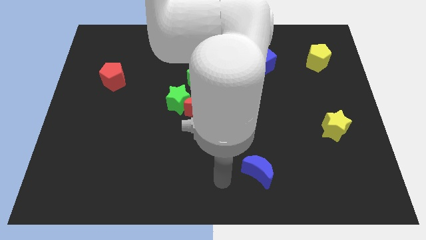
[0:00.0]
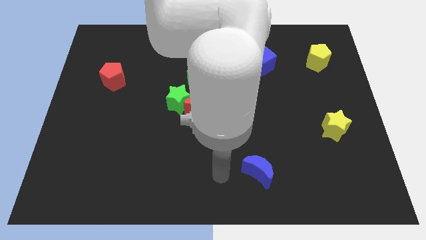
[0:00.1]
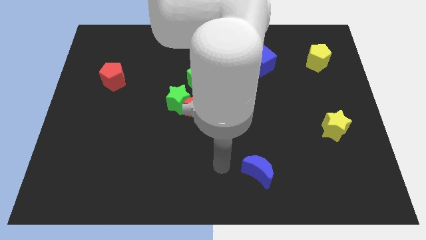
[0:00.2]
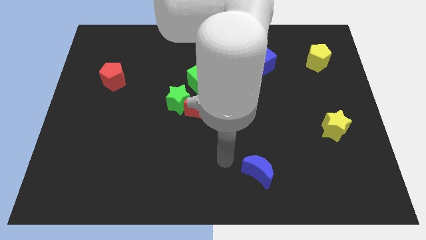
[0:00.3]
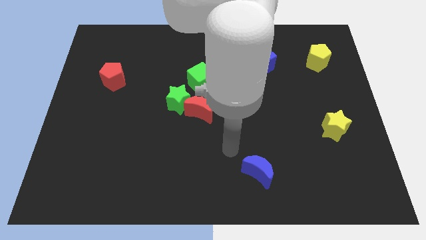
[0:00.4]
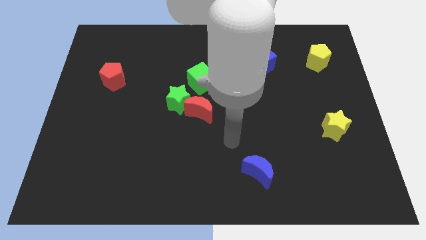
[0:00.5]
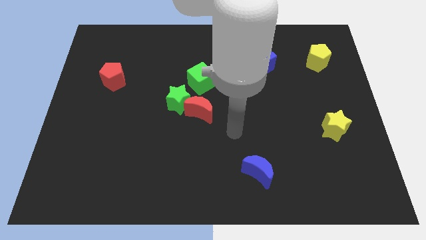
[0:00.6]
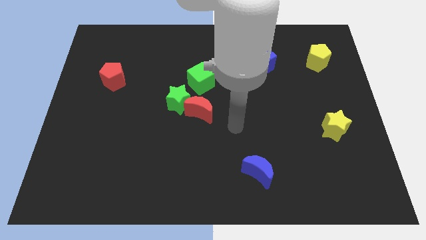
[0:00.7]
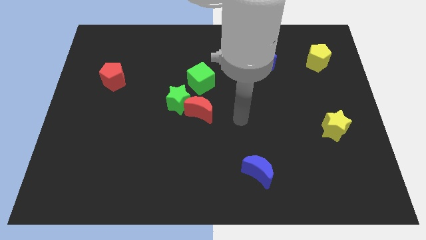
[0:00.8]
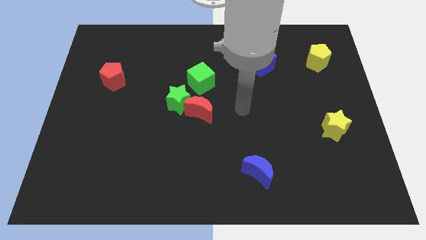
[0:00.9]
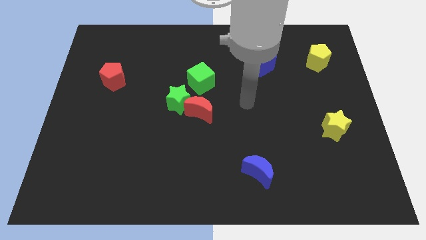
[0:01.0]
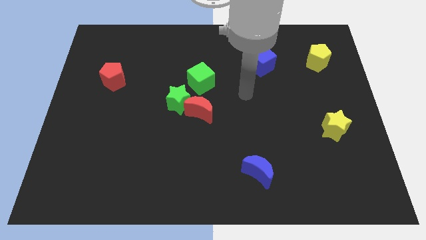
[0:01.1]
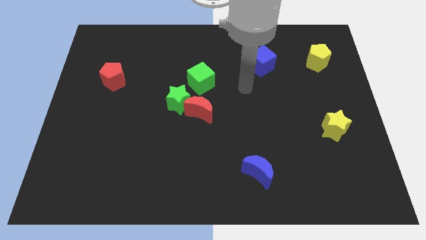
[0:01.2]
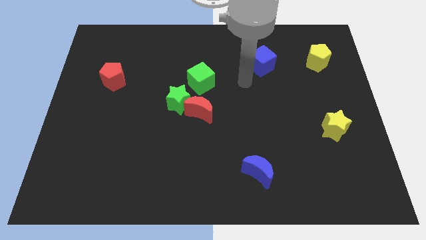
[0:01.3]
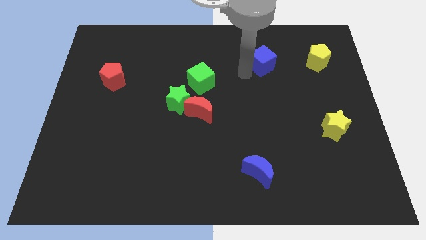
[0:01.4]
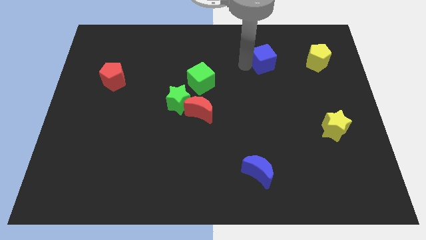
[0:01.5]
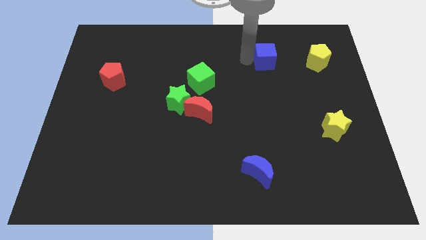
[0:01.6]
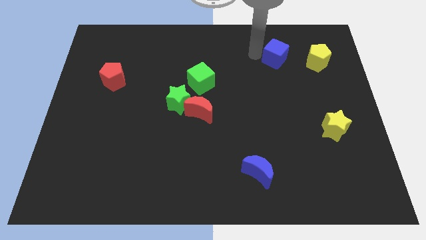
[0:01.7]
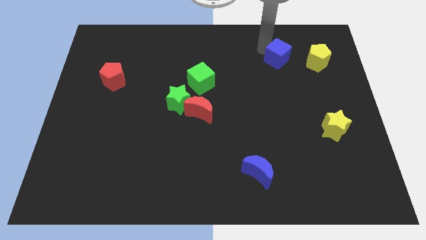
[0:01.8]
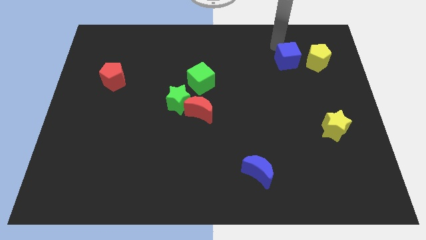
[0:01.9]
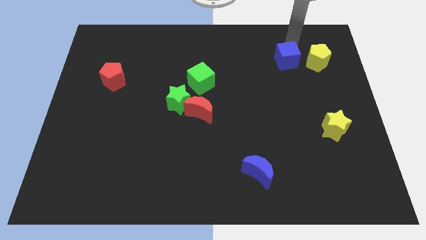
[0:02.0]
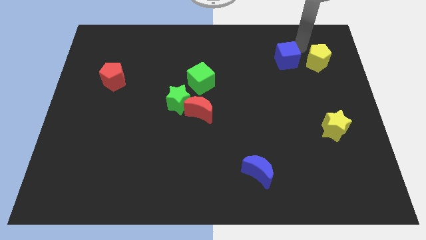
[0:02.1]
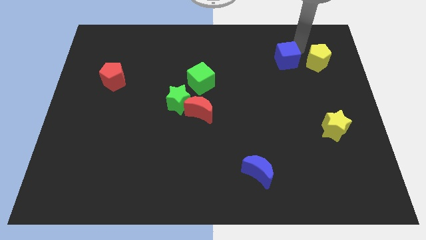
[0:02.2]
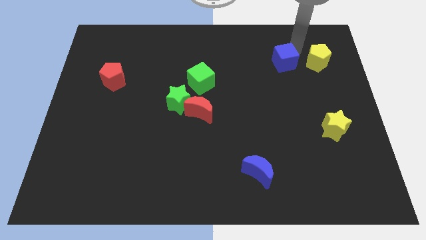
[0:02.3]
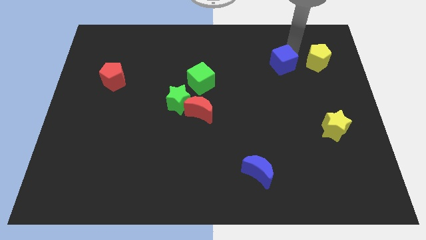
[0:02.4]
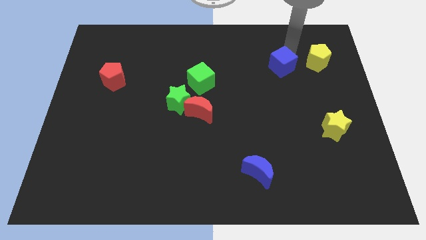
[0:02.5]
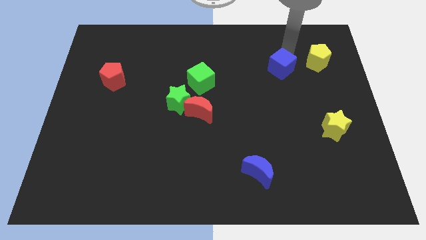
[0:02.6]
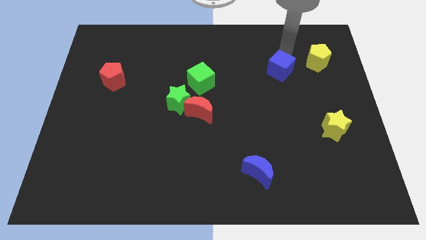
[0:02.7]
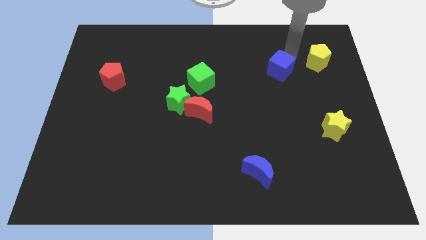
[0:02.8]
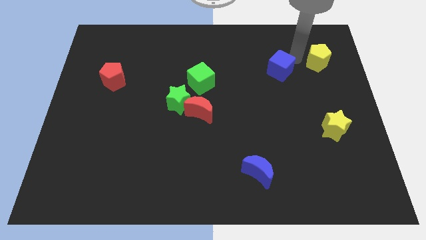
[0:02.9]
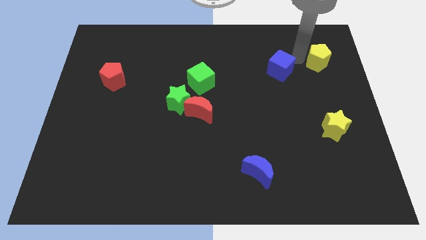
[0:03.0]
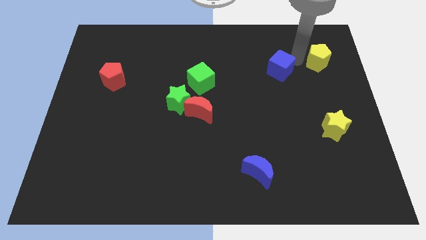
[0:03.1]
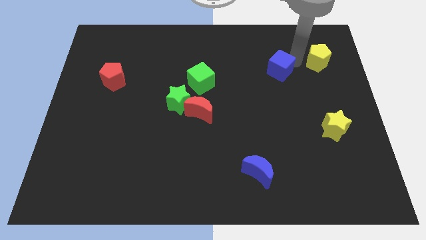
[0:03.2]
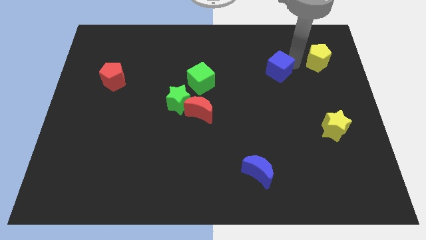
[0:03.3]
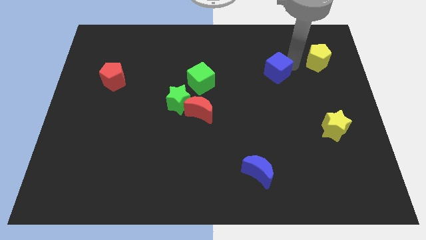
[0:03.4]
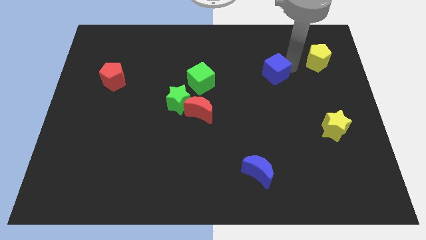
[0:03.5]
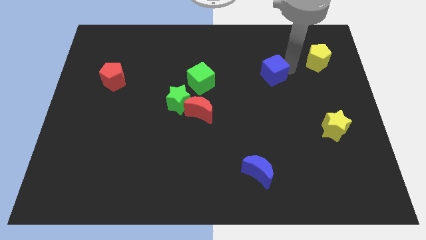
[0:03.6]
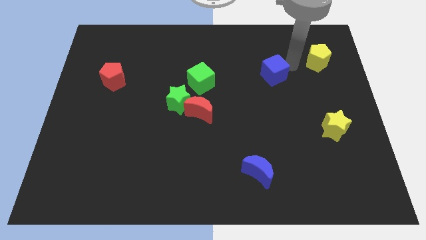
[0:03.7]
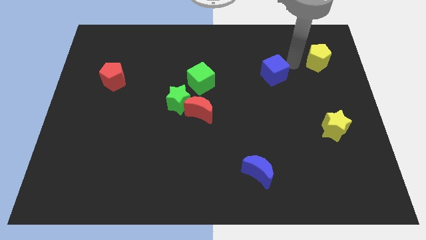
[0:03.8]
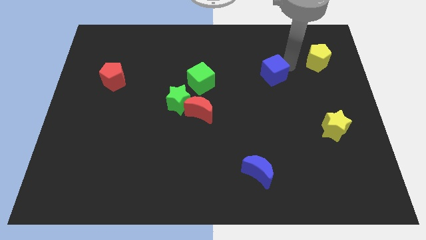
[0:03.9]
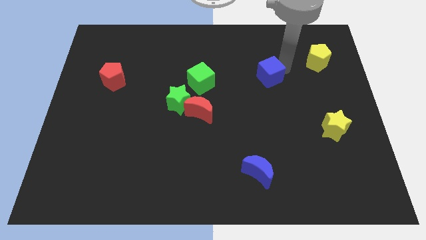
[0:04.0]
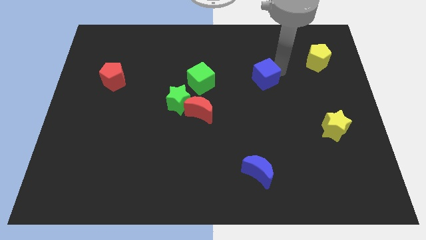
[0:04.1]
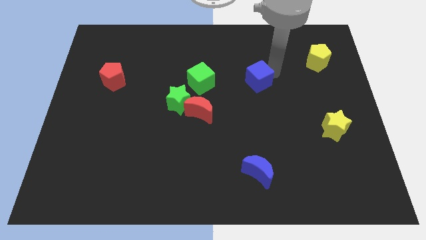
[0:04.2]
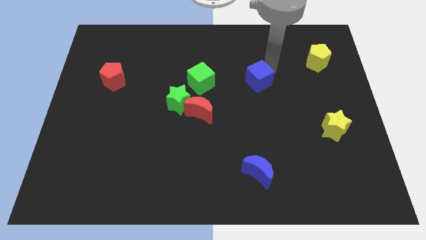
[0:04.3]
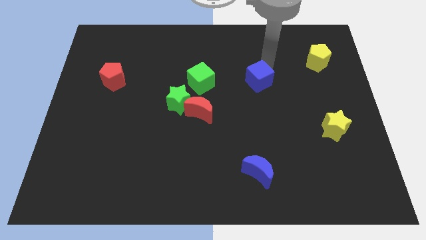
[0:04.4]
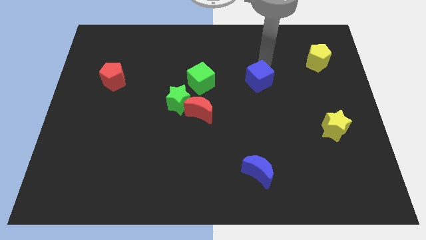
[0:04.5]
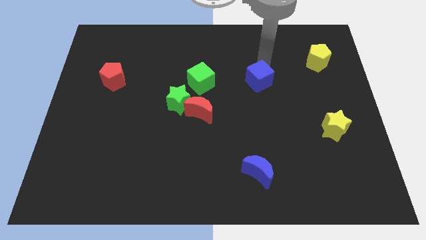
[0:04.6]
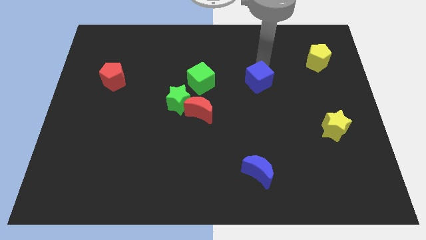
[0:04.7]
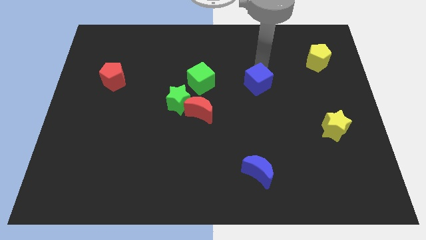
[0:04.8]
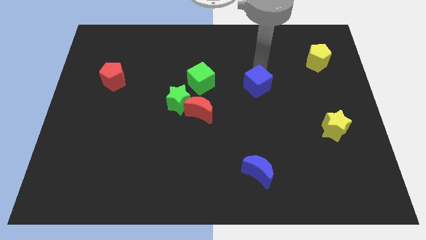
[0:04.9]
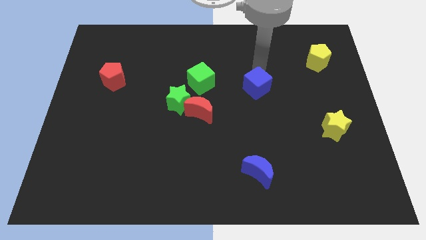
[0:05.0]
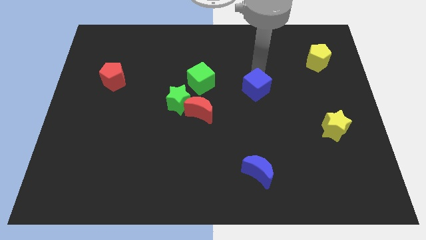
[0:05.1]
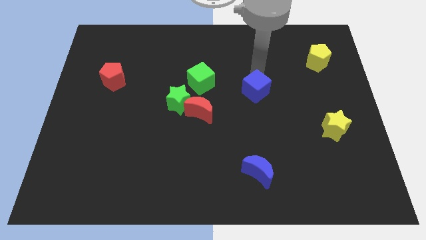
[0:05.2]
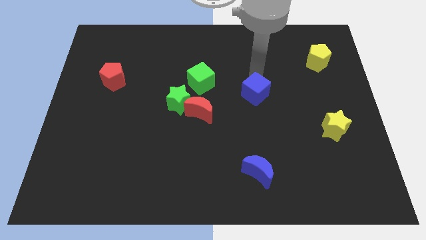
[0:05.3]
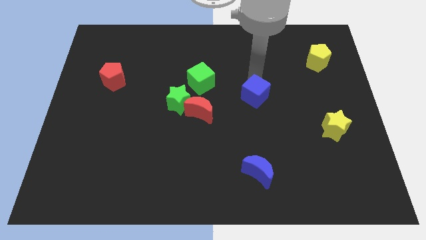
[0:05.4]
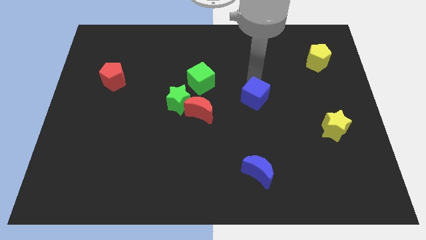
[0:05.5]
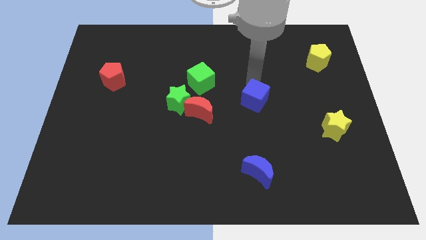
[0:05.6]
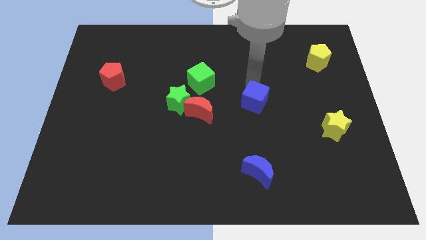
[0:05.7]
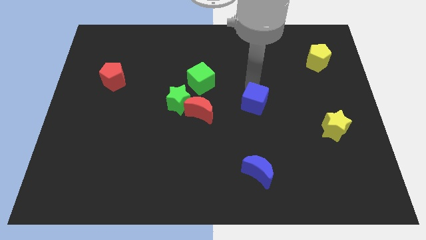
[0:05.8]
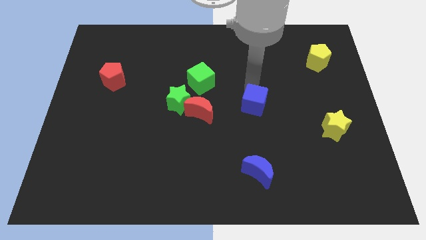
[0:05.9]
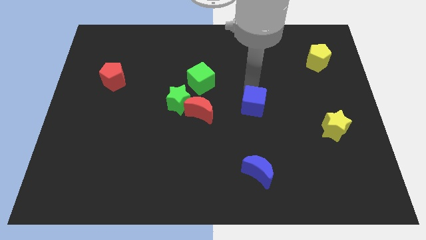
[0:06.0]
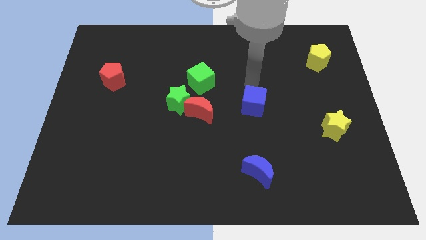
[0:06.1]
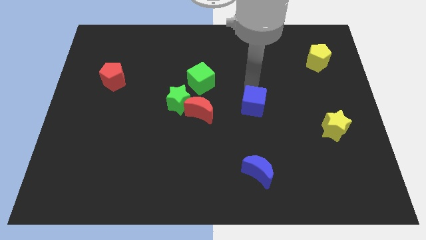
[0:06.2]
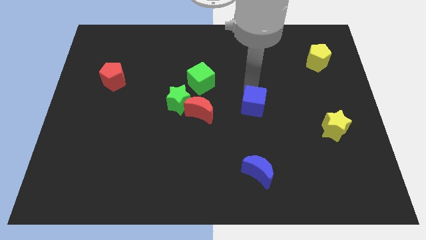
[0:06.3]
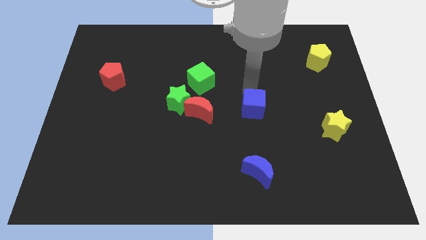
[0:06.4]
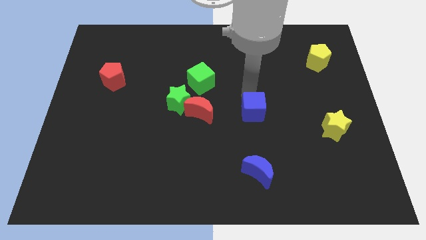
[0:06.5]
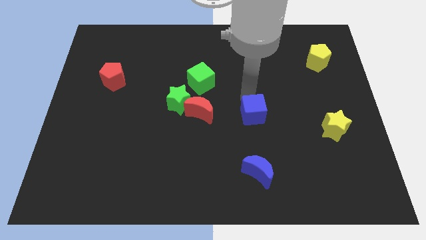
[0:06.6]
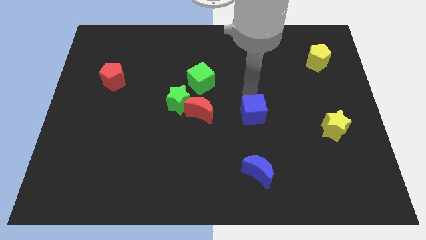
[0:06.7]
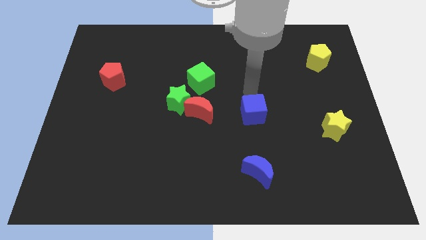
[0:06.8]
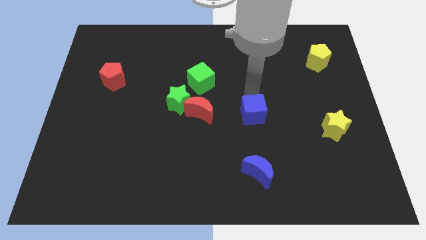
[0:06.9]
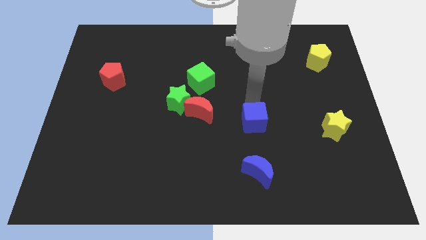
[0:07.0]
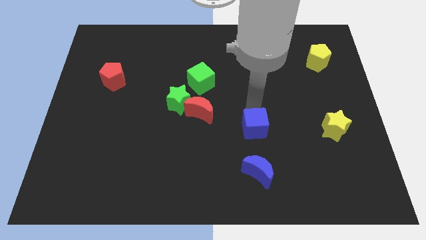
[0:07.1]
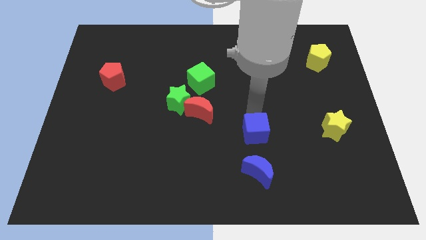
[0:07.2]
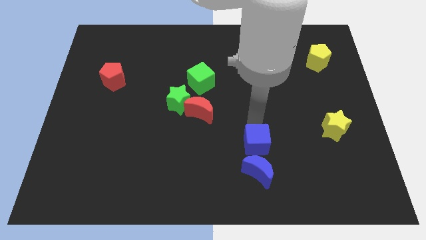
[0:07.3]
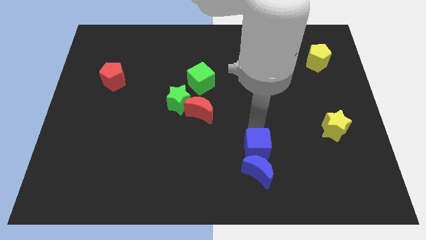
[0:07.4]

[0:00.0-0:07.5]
put the blue cube close to the blue moon
